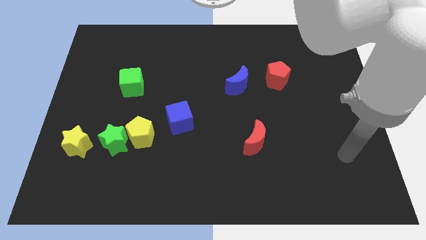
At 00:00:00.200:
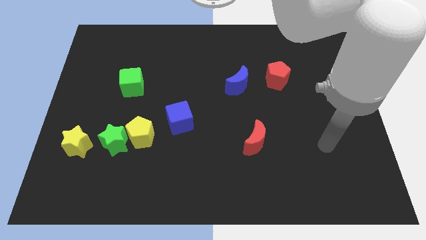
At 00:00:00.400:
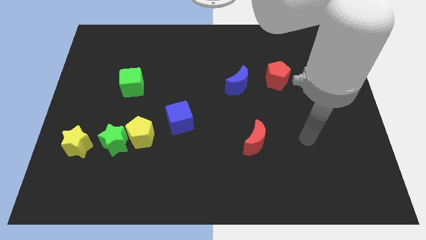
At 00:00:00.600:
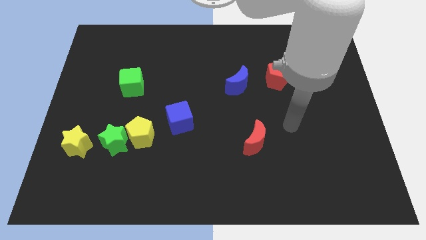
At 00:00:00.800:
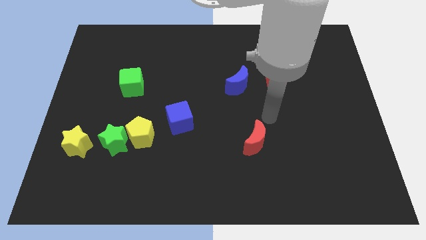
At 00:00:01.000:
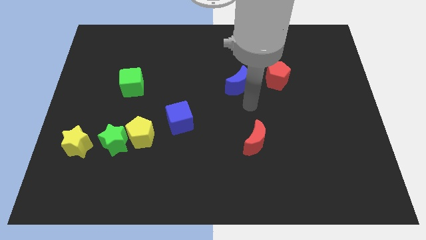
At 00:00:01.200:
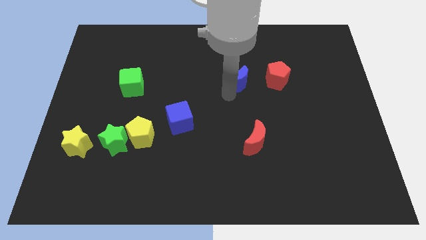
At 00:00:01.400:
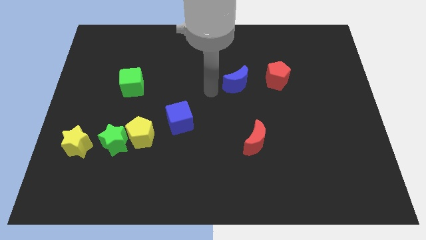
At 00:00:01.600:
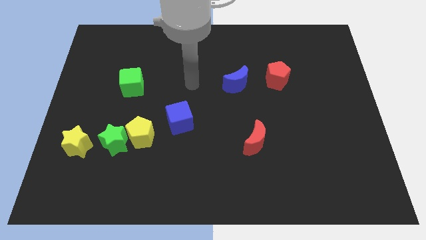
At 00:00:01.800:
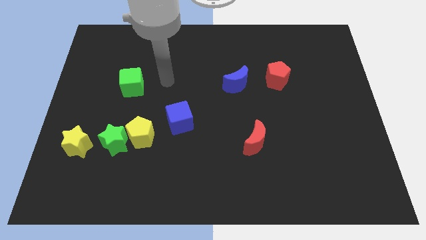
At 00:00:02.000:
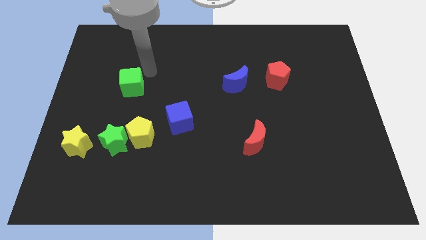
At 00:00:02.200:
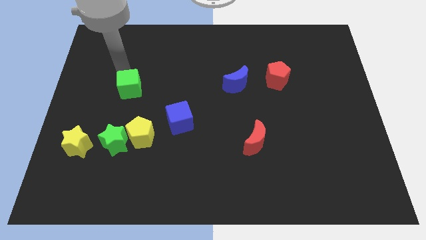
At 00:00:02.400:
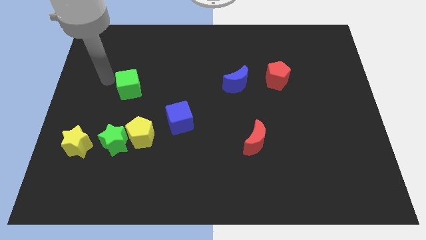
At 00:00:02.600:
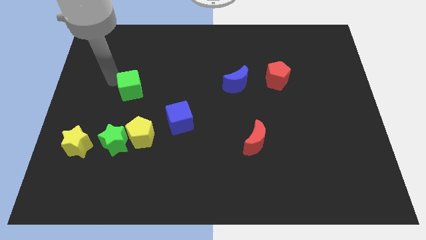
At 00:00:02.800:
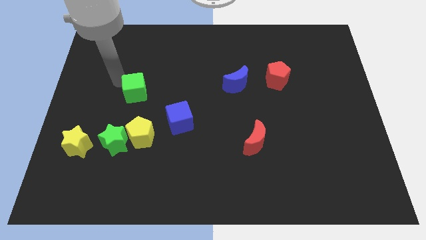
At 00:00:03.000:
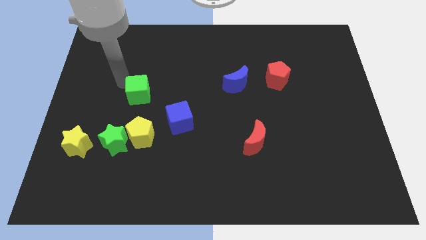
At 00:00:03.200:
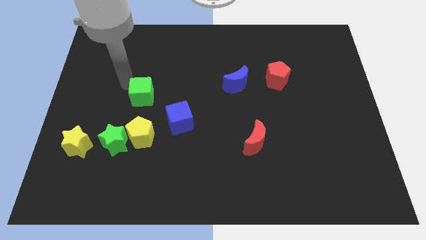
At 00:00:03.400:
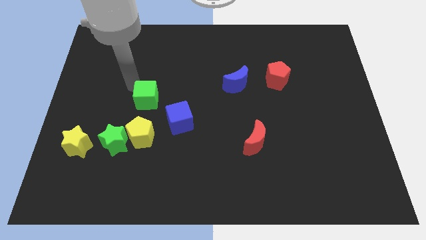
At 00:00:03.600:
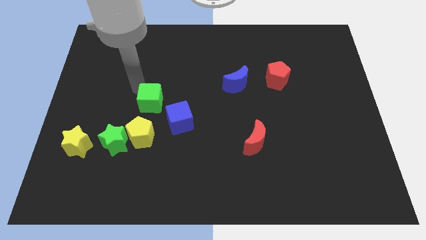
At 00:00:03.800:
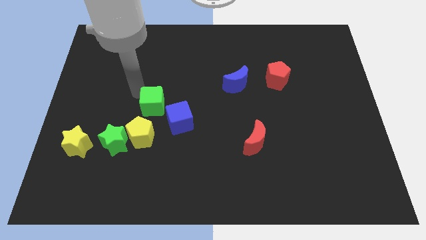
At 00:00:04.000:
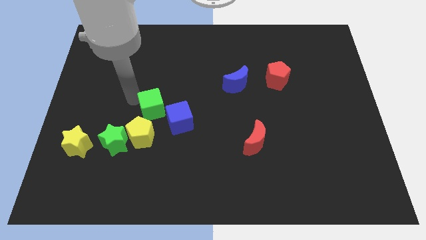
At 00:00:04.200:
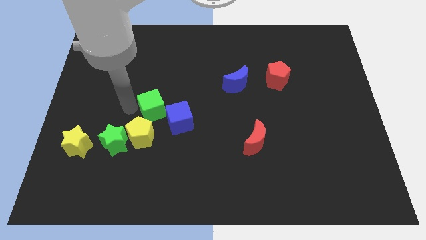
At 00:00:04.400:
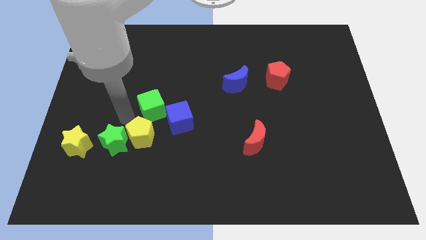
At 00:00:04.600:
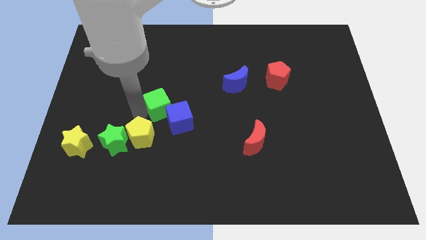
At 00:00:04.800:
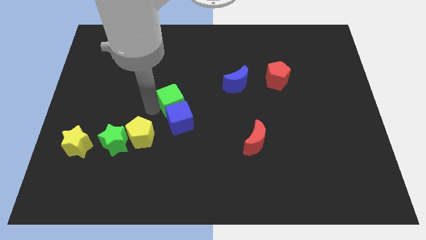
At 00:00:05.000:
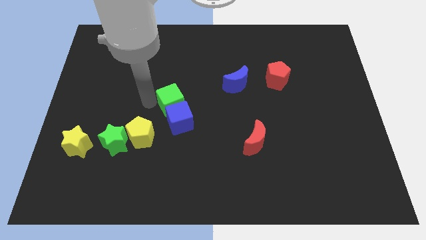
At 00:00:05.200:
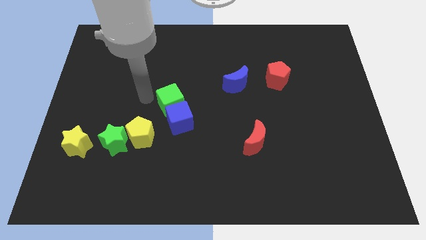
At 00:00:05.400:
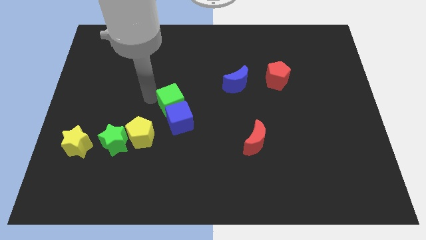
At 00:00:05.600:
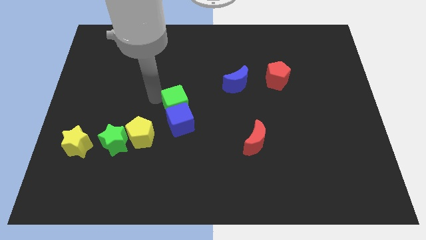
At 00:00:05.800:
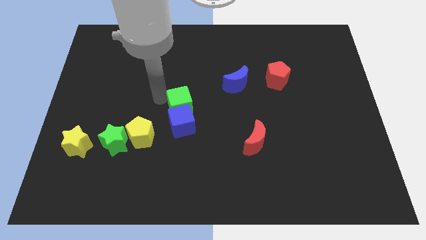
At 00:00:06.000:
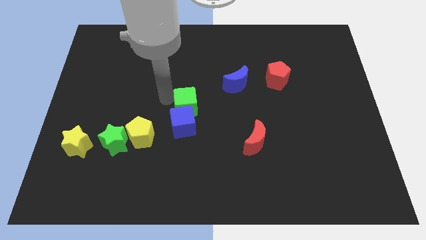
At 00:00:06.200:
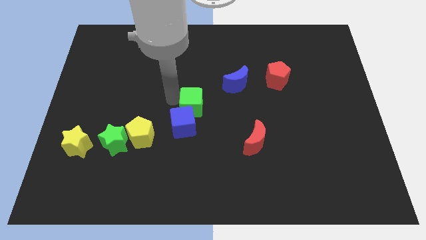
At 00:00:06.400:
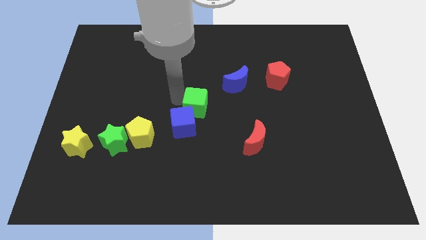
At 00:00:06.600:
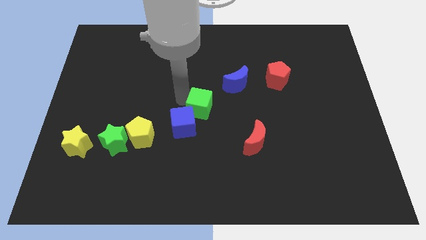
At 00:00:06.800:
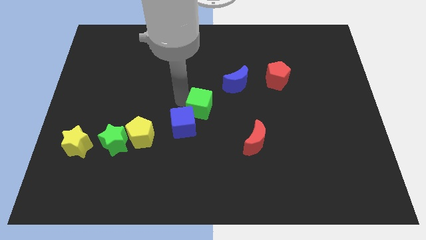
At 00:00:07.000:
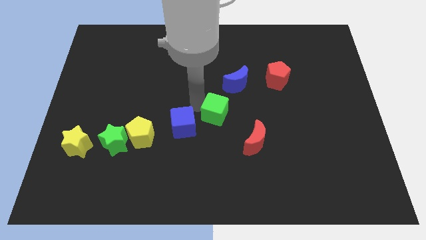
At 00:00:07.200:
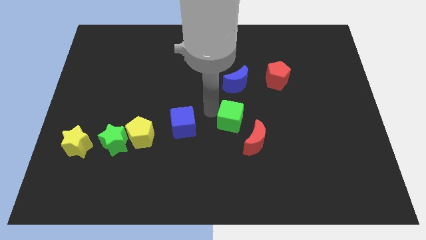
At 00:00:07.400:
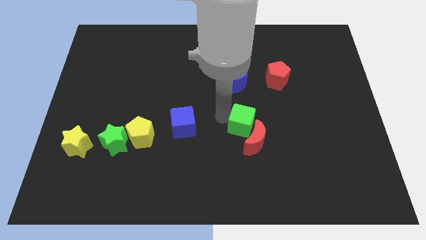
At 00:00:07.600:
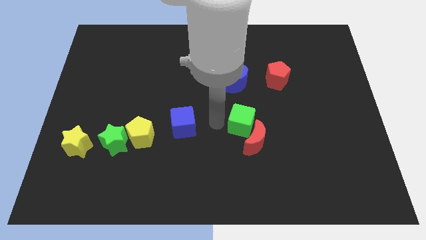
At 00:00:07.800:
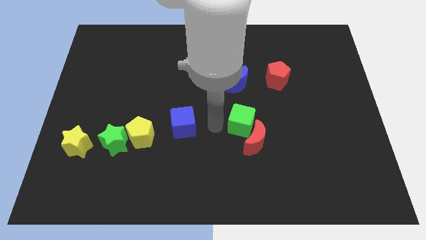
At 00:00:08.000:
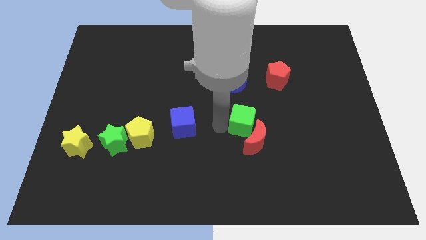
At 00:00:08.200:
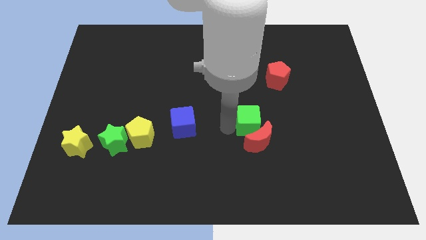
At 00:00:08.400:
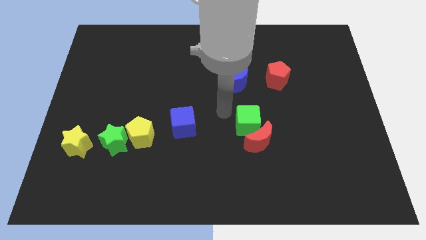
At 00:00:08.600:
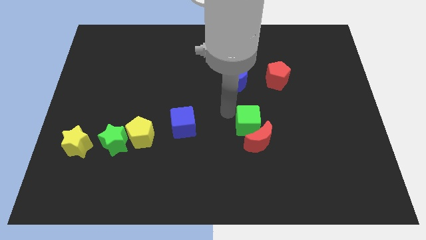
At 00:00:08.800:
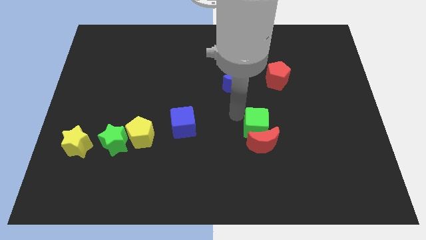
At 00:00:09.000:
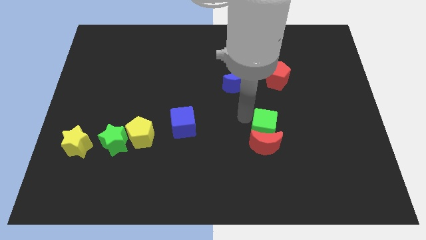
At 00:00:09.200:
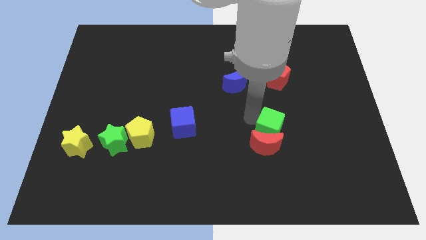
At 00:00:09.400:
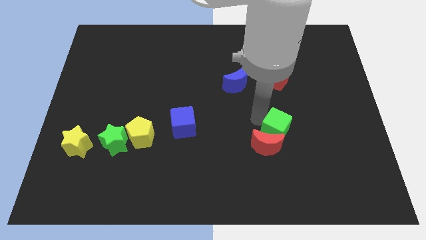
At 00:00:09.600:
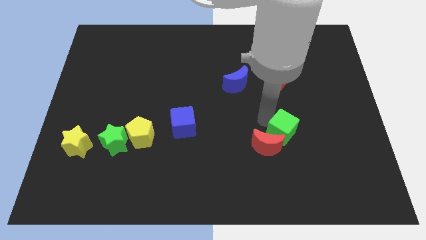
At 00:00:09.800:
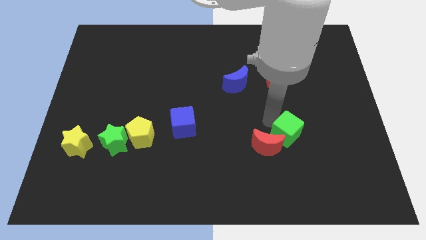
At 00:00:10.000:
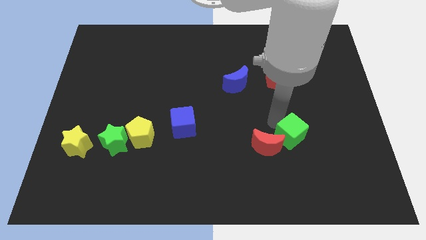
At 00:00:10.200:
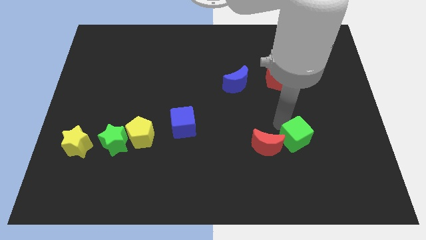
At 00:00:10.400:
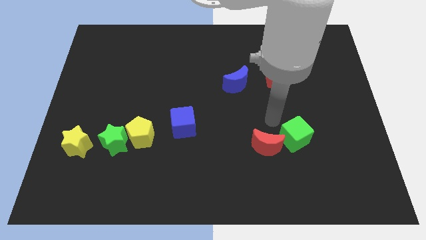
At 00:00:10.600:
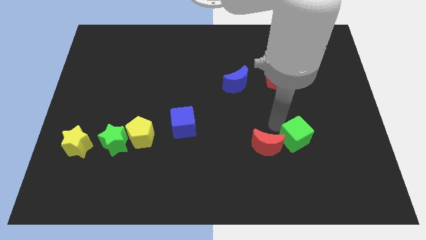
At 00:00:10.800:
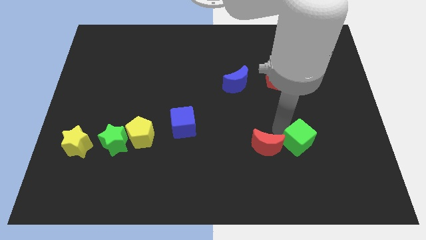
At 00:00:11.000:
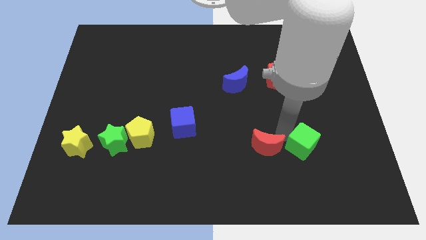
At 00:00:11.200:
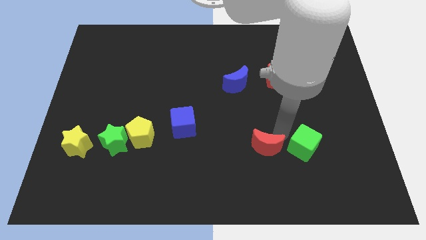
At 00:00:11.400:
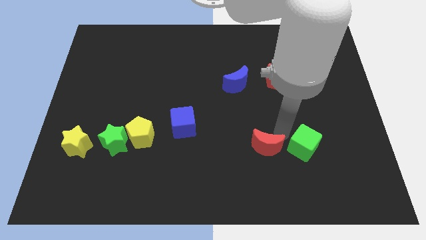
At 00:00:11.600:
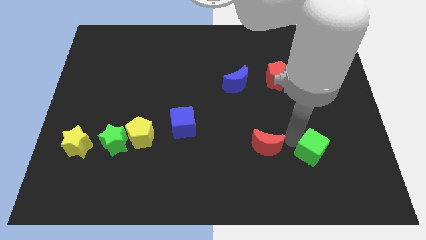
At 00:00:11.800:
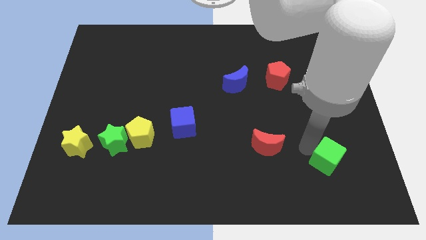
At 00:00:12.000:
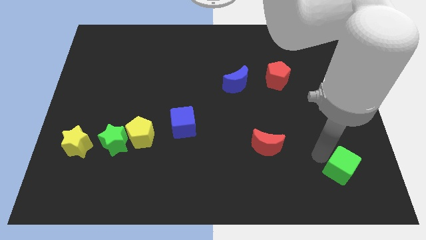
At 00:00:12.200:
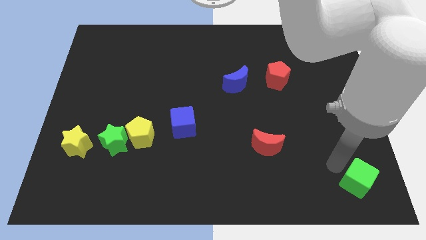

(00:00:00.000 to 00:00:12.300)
push the green cube to the bottom right
